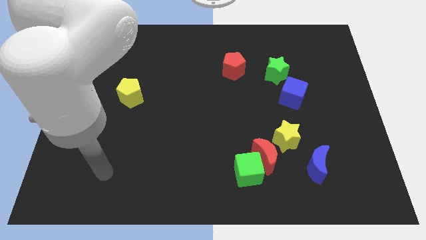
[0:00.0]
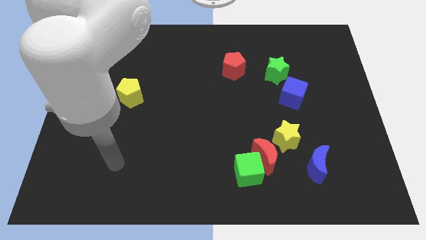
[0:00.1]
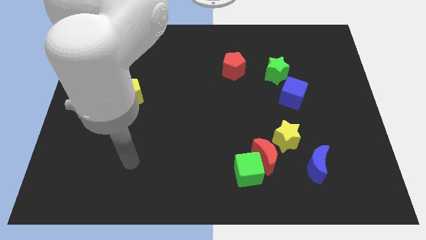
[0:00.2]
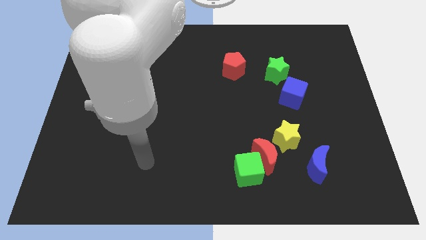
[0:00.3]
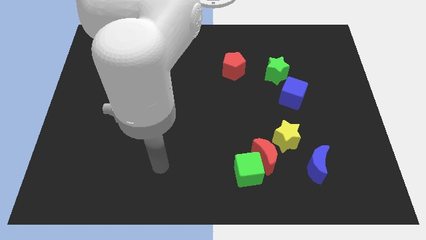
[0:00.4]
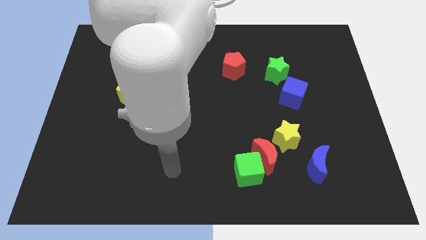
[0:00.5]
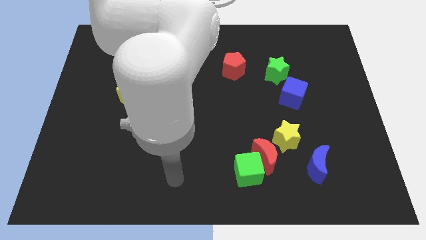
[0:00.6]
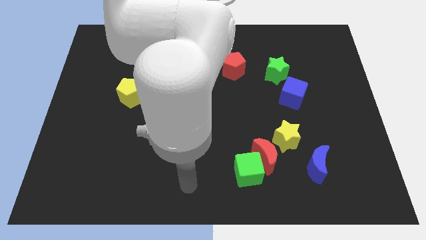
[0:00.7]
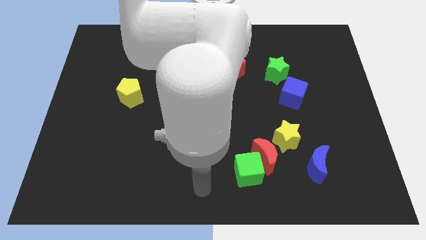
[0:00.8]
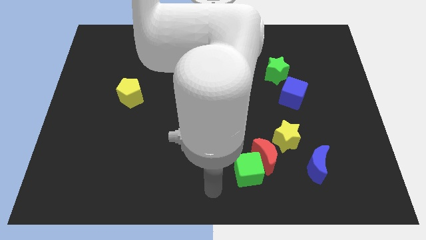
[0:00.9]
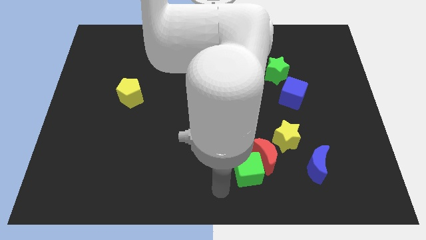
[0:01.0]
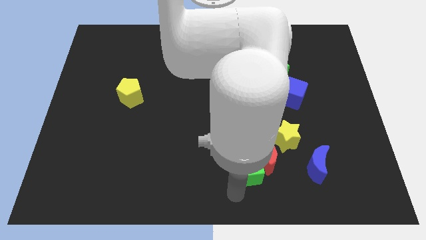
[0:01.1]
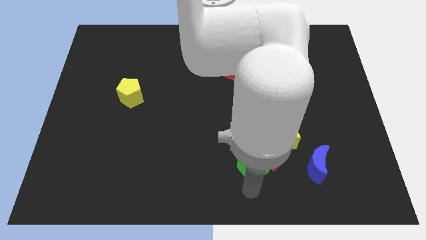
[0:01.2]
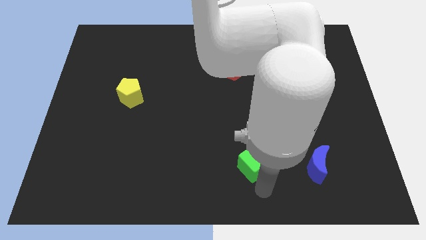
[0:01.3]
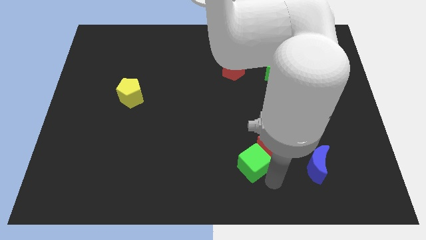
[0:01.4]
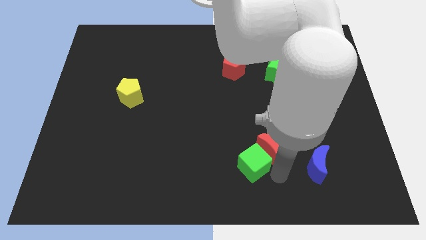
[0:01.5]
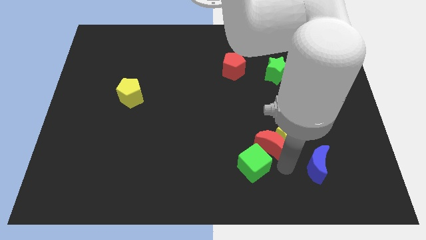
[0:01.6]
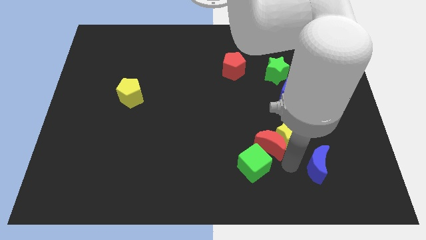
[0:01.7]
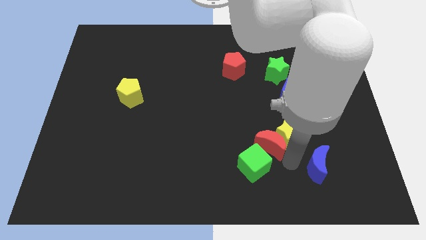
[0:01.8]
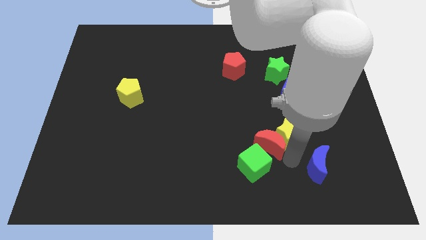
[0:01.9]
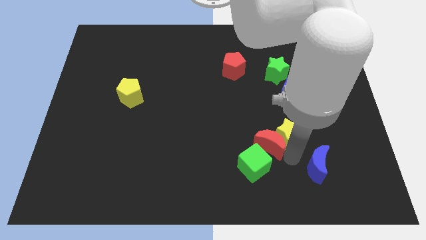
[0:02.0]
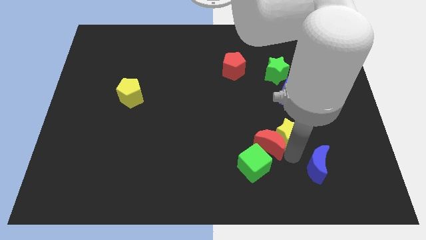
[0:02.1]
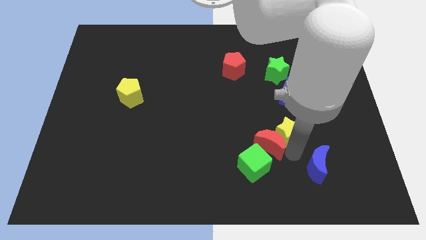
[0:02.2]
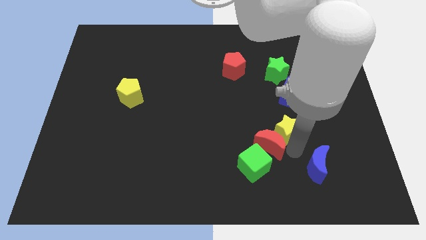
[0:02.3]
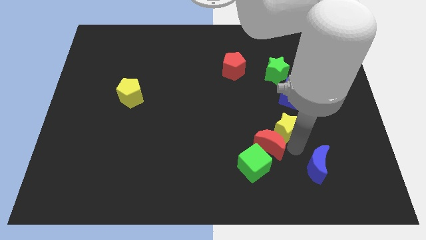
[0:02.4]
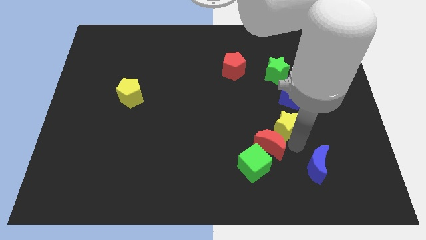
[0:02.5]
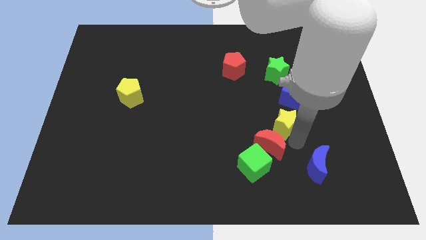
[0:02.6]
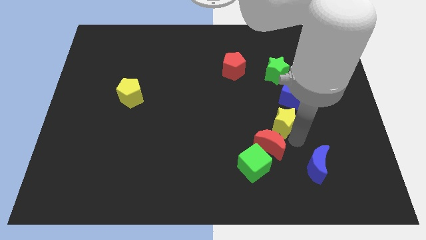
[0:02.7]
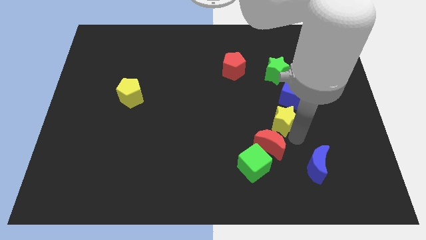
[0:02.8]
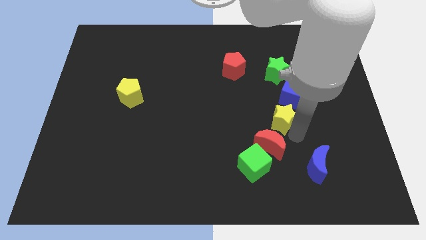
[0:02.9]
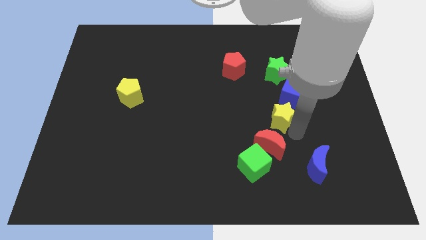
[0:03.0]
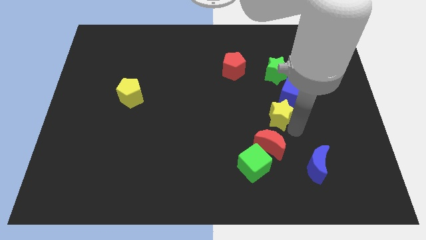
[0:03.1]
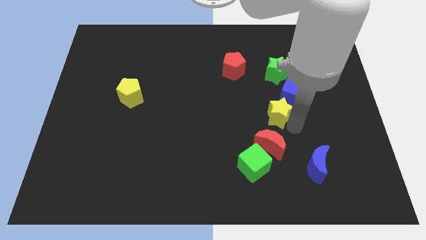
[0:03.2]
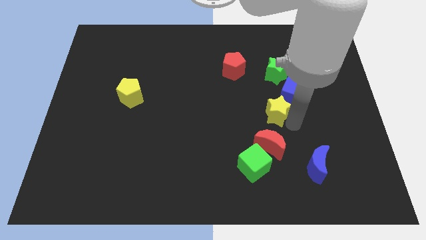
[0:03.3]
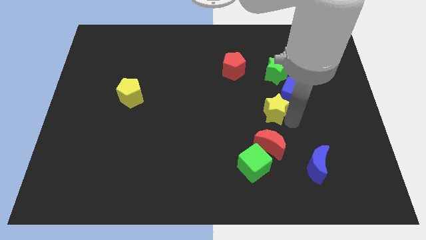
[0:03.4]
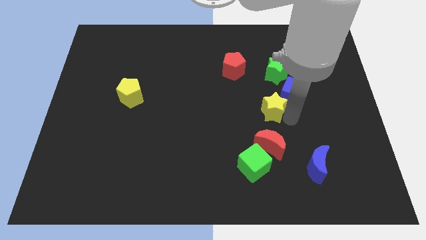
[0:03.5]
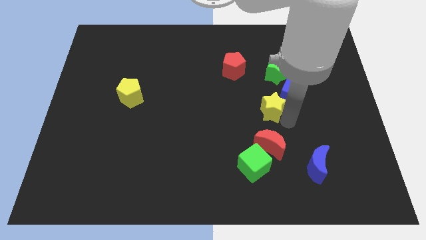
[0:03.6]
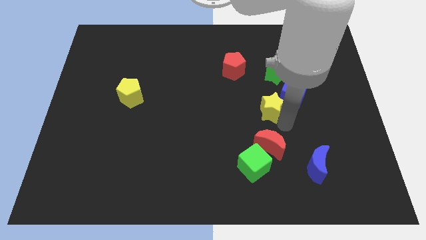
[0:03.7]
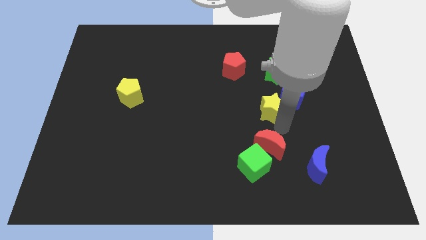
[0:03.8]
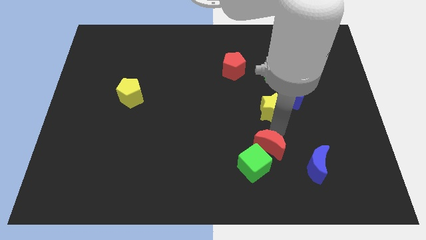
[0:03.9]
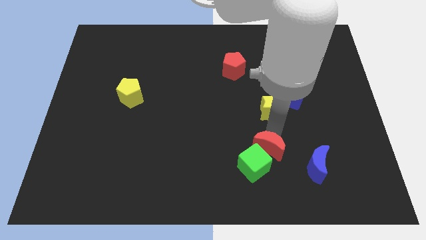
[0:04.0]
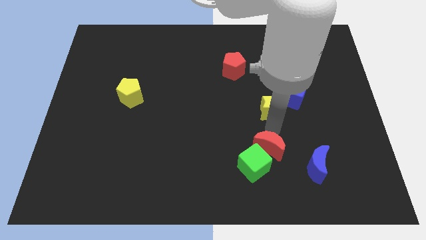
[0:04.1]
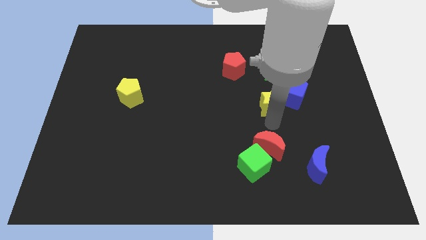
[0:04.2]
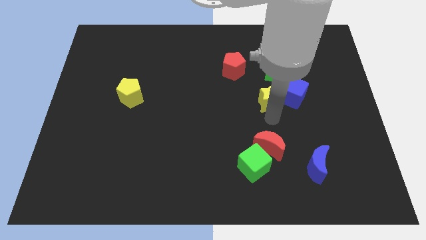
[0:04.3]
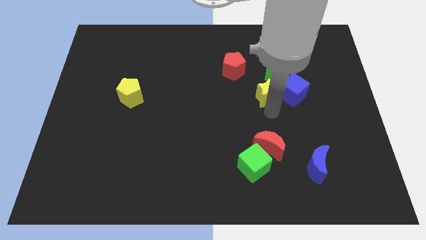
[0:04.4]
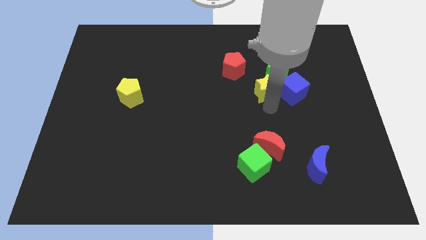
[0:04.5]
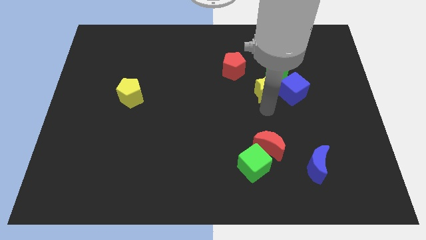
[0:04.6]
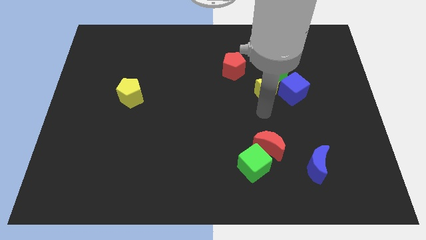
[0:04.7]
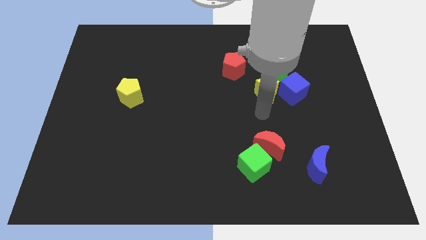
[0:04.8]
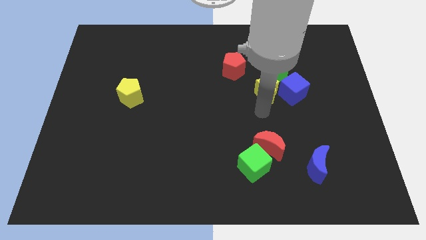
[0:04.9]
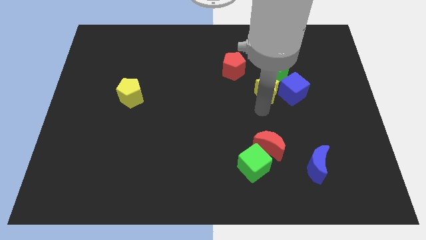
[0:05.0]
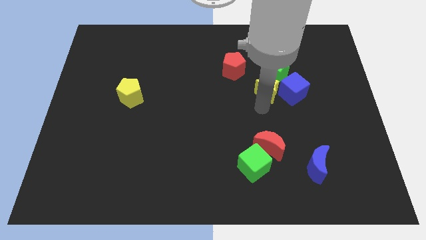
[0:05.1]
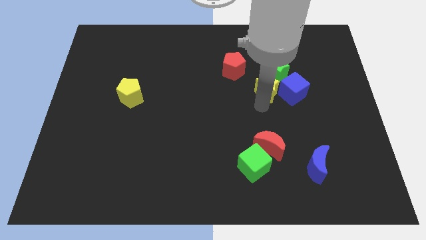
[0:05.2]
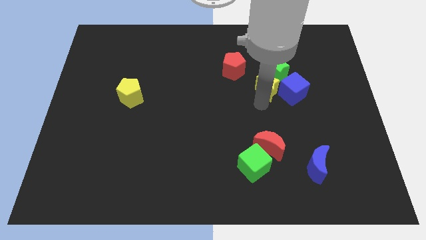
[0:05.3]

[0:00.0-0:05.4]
slide the yellow star next to the green star

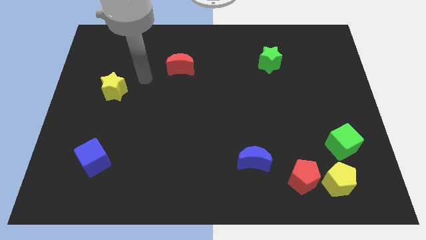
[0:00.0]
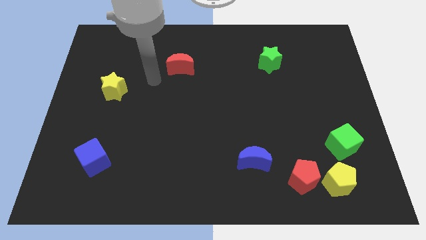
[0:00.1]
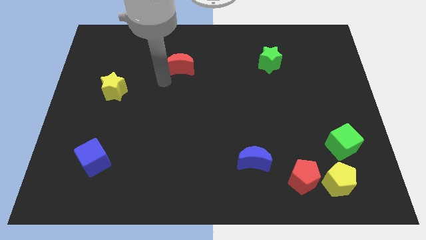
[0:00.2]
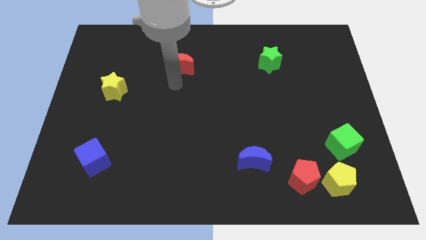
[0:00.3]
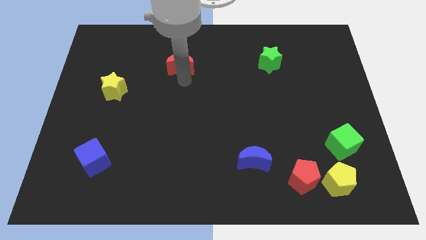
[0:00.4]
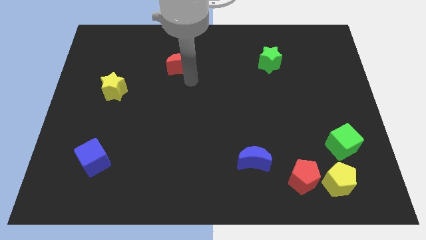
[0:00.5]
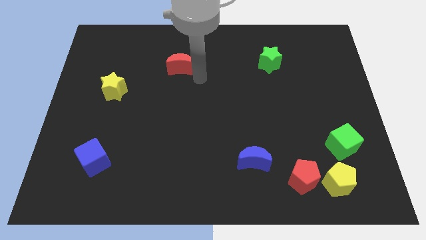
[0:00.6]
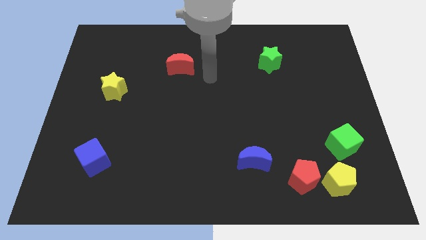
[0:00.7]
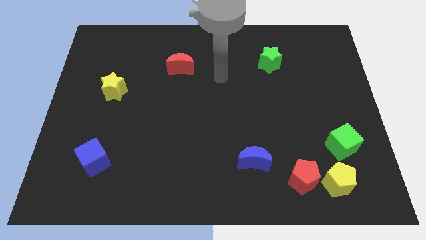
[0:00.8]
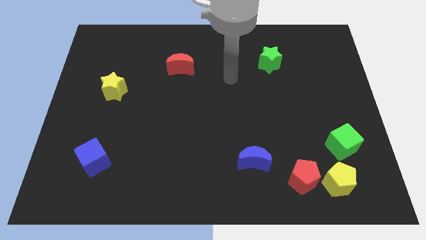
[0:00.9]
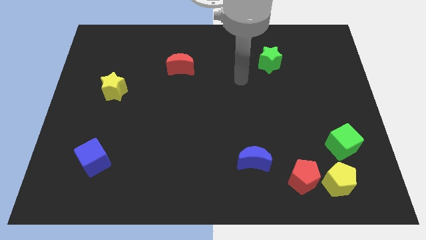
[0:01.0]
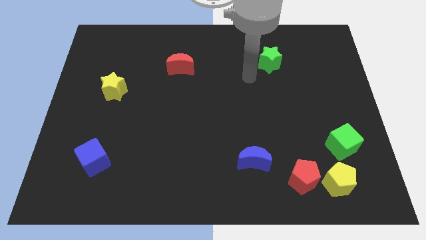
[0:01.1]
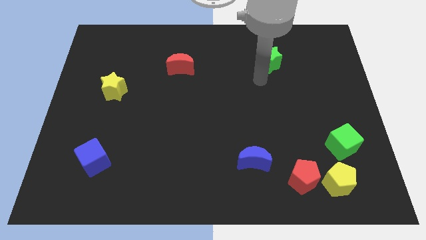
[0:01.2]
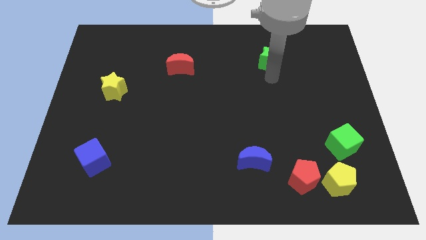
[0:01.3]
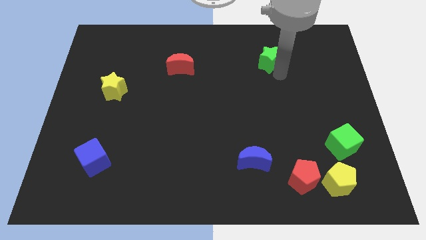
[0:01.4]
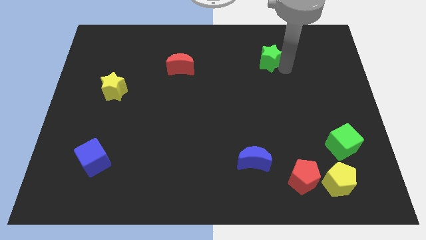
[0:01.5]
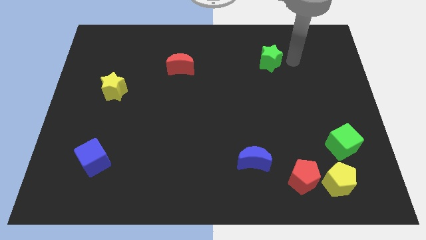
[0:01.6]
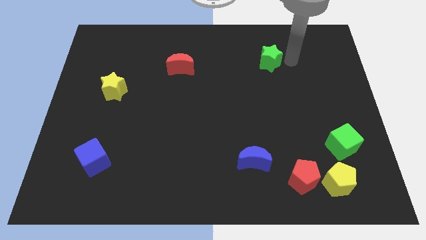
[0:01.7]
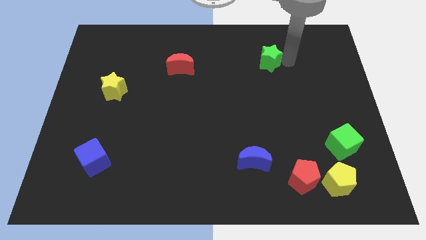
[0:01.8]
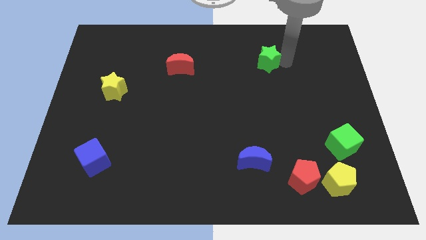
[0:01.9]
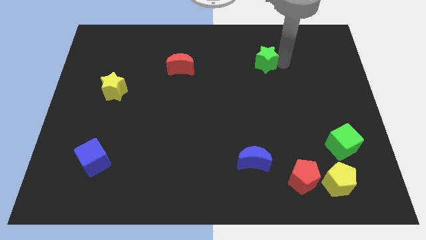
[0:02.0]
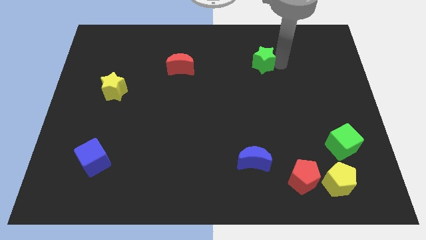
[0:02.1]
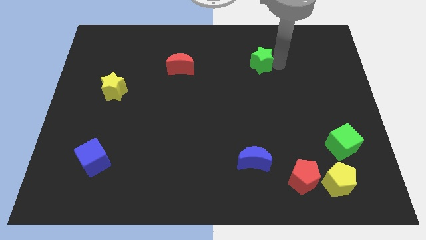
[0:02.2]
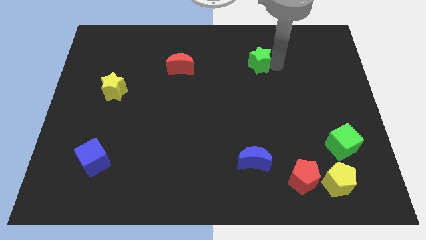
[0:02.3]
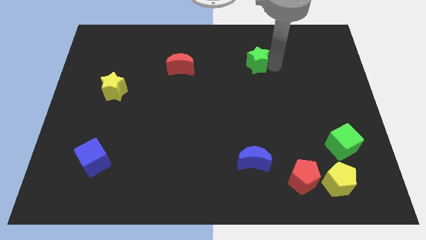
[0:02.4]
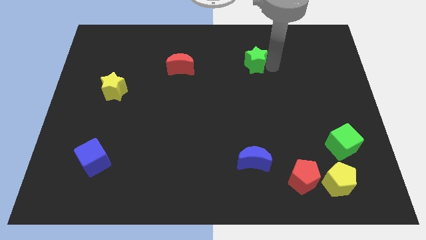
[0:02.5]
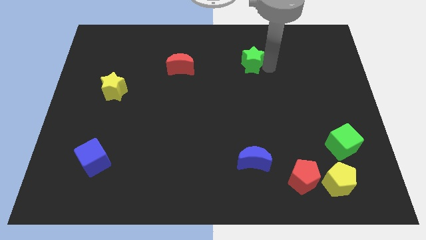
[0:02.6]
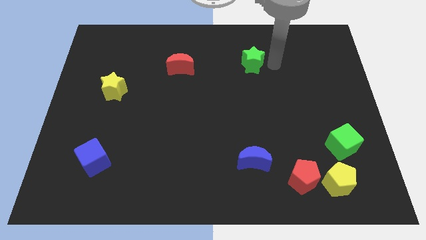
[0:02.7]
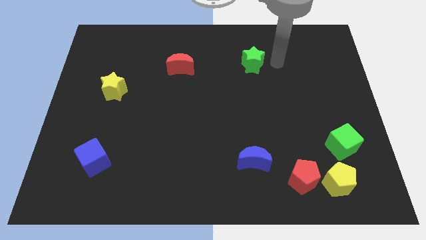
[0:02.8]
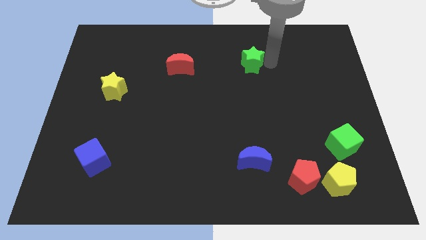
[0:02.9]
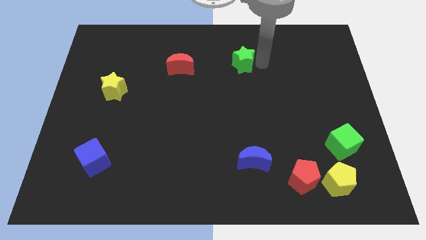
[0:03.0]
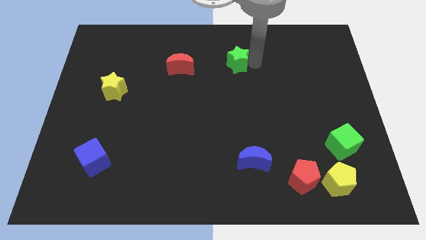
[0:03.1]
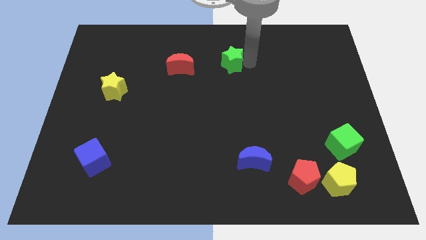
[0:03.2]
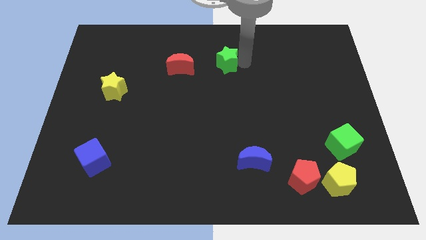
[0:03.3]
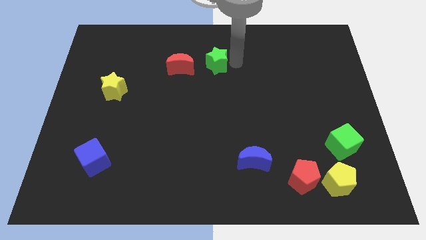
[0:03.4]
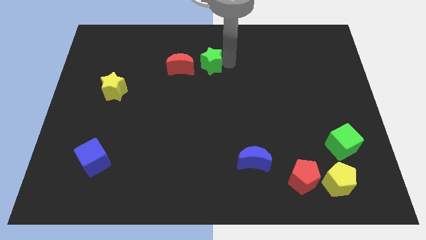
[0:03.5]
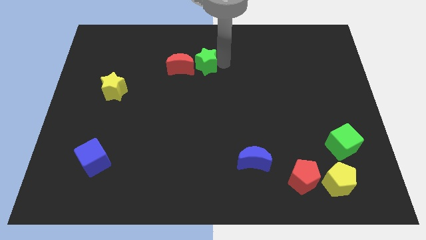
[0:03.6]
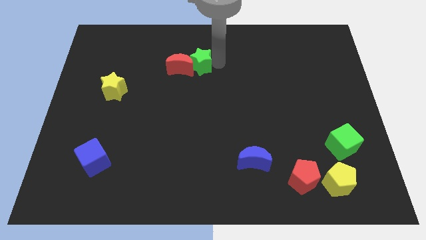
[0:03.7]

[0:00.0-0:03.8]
push the green star to the red moon
